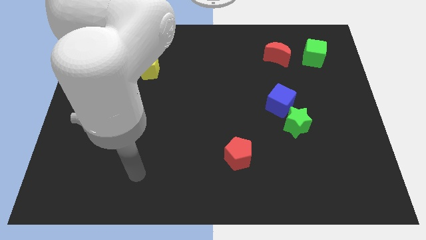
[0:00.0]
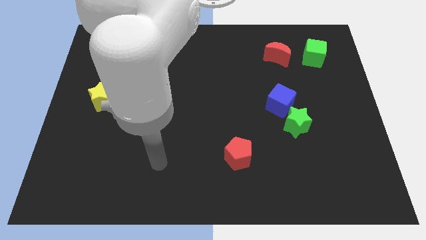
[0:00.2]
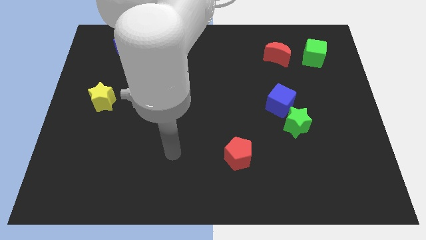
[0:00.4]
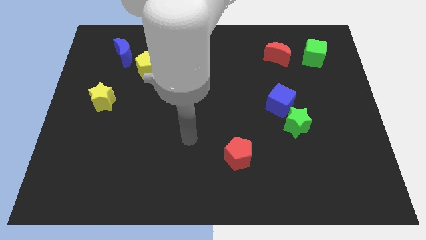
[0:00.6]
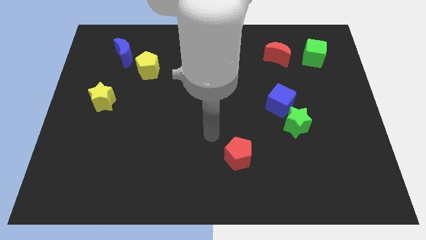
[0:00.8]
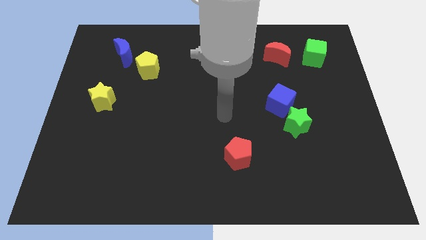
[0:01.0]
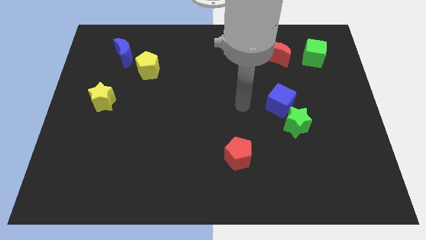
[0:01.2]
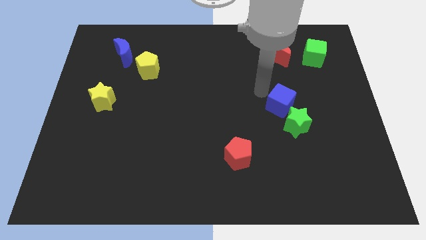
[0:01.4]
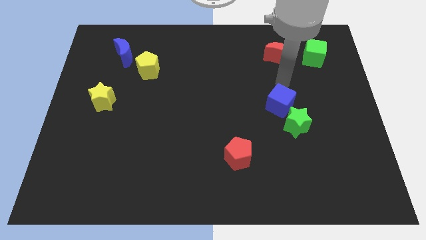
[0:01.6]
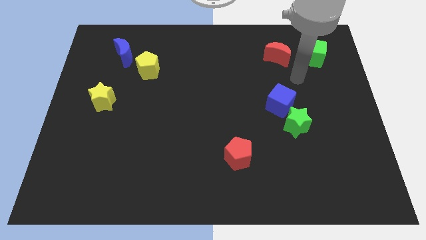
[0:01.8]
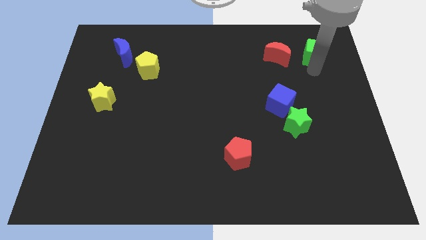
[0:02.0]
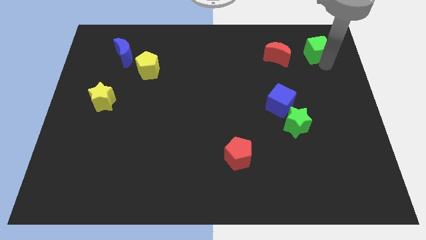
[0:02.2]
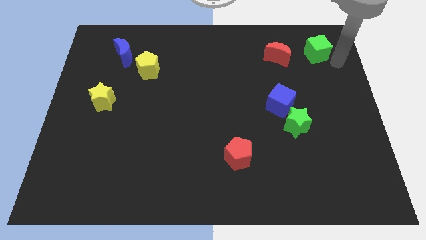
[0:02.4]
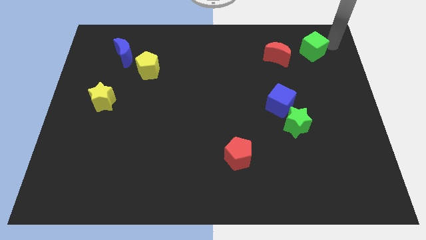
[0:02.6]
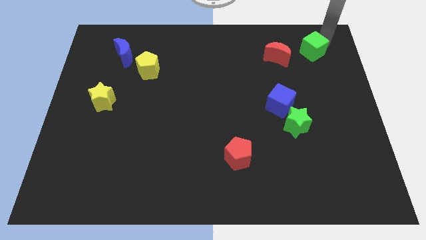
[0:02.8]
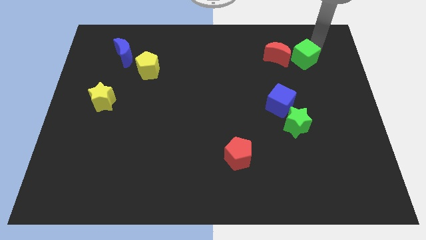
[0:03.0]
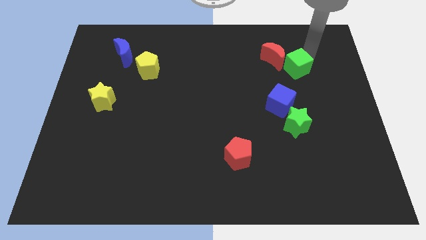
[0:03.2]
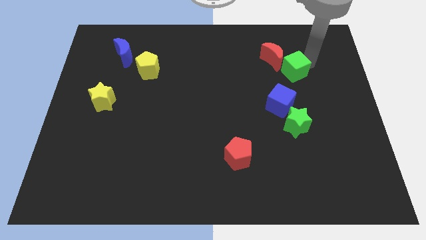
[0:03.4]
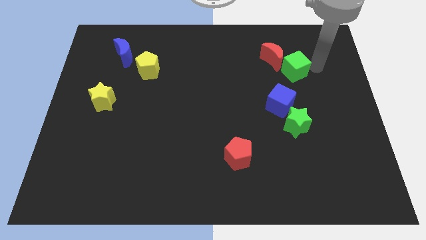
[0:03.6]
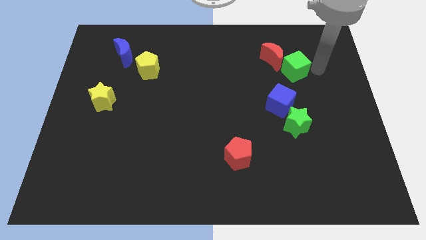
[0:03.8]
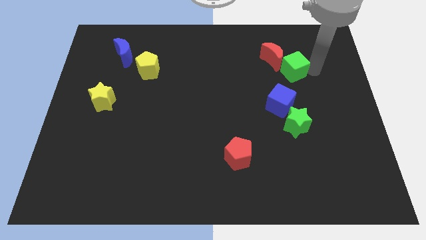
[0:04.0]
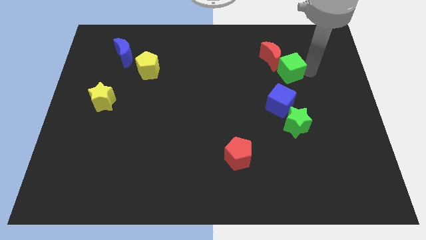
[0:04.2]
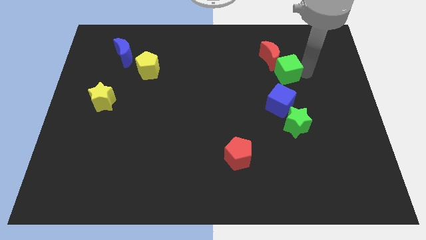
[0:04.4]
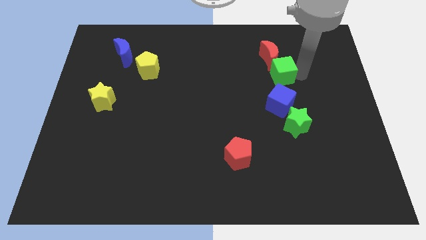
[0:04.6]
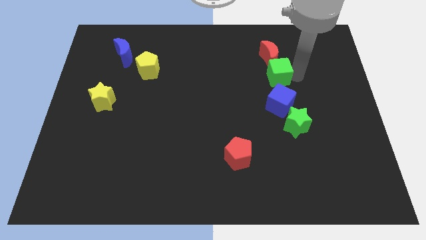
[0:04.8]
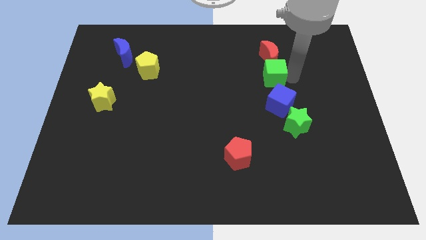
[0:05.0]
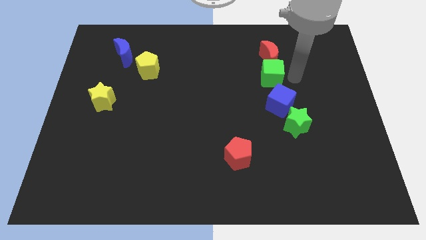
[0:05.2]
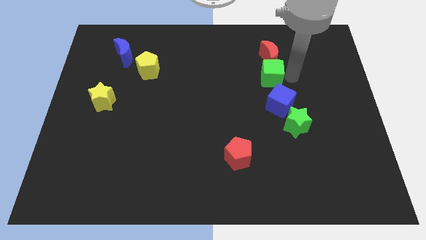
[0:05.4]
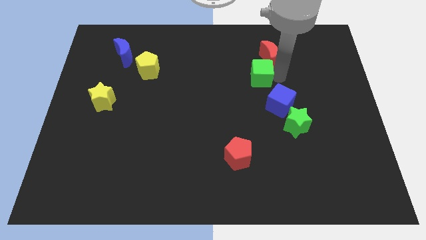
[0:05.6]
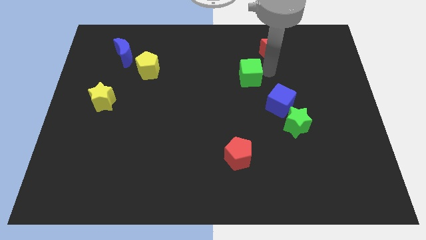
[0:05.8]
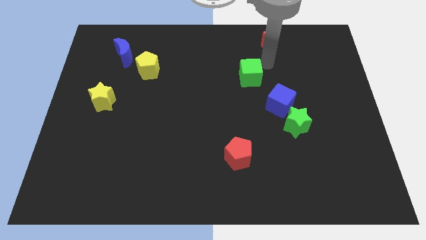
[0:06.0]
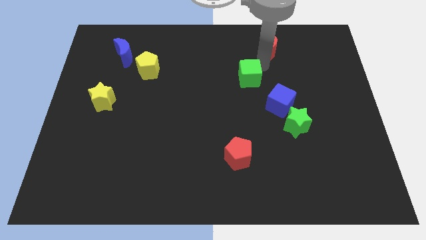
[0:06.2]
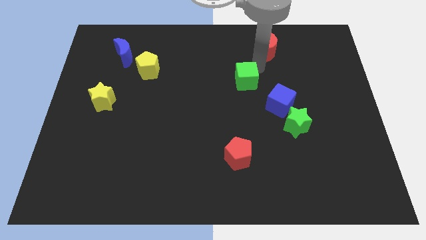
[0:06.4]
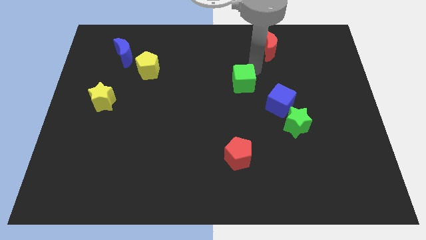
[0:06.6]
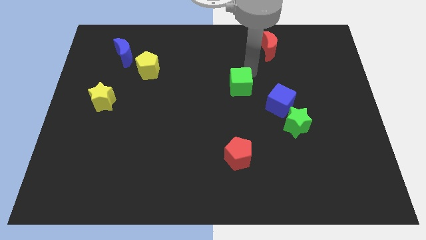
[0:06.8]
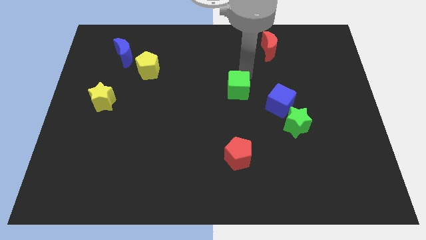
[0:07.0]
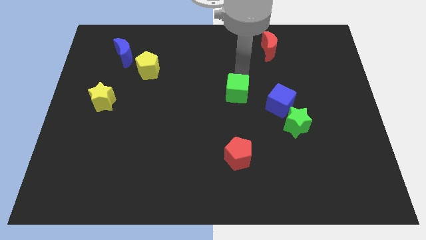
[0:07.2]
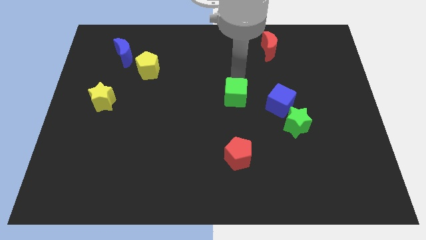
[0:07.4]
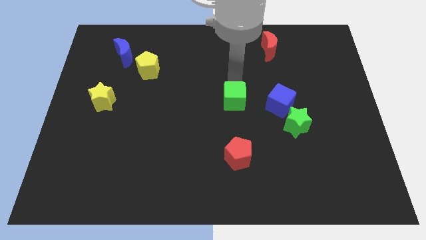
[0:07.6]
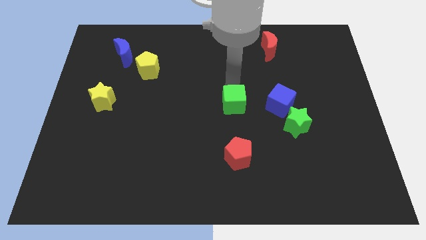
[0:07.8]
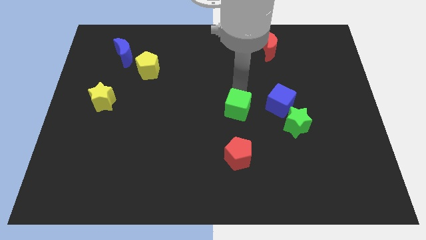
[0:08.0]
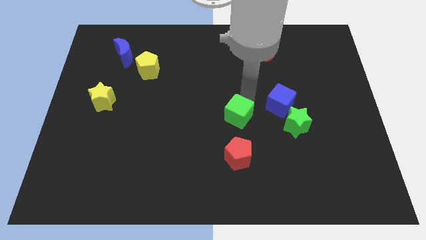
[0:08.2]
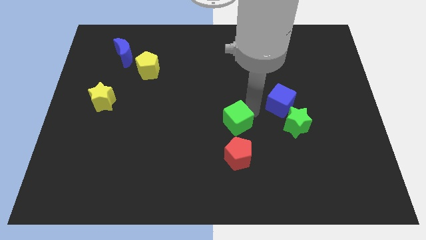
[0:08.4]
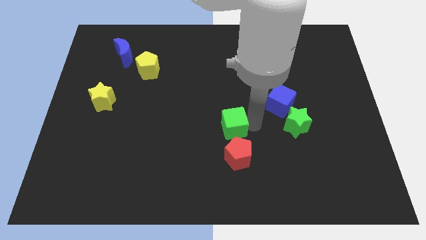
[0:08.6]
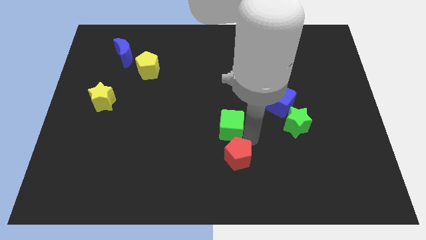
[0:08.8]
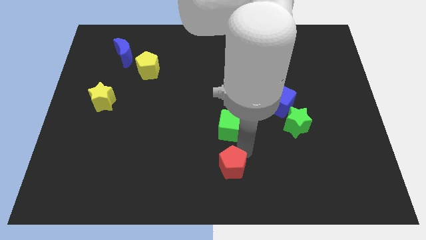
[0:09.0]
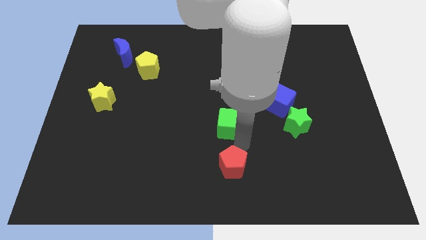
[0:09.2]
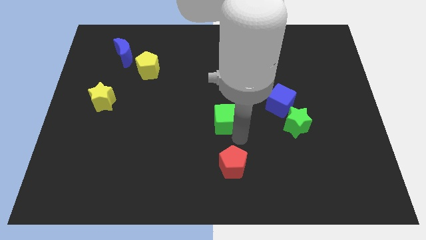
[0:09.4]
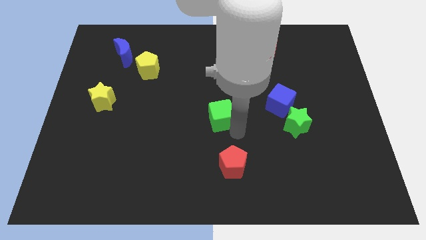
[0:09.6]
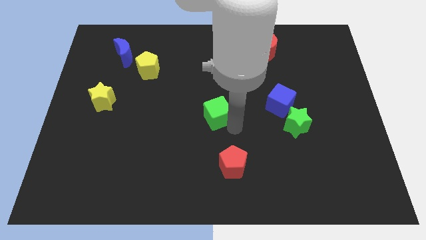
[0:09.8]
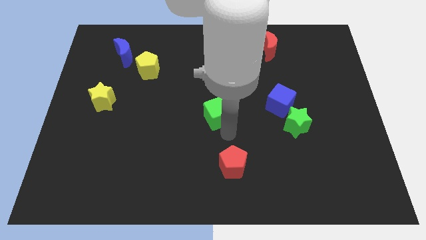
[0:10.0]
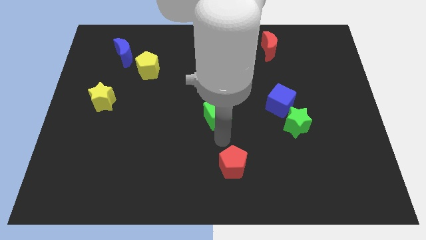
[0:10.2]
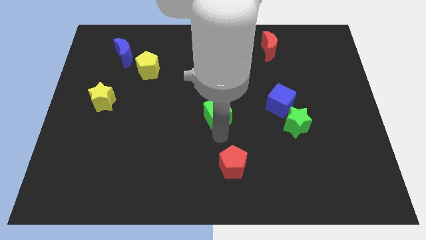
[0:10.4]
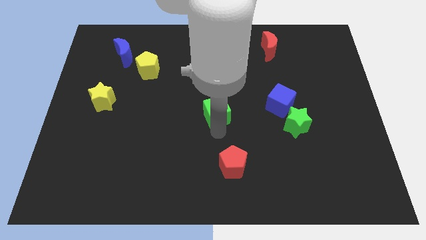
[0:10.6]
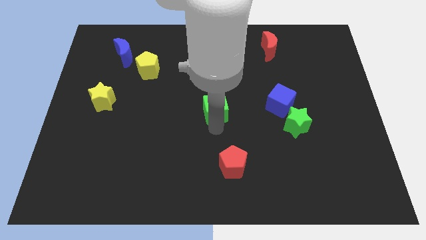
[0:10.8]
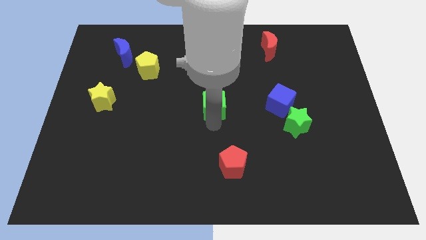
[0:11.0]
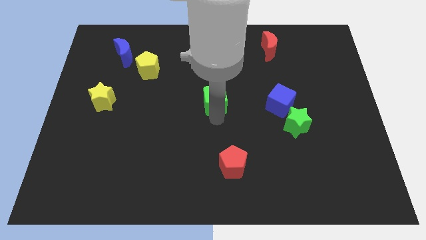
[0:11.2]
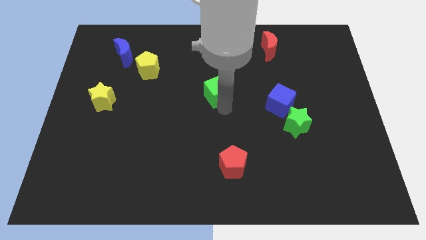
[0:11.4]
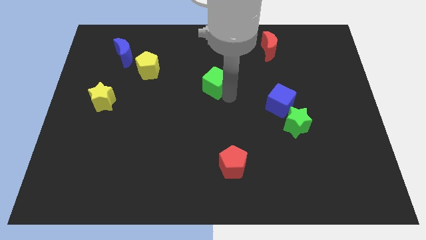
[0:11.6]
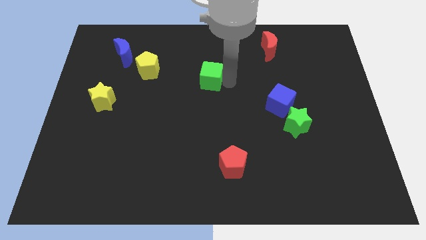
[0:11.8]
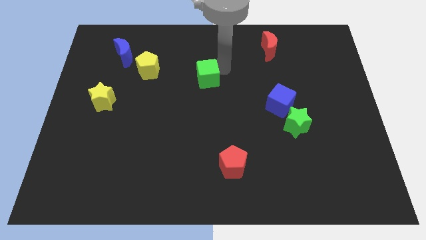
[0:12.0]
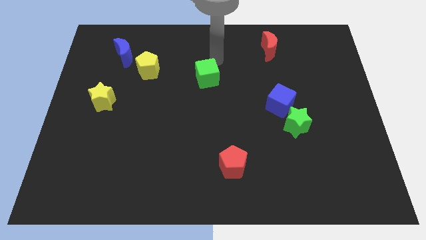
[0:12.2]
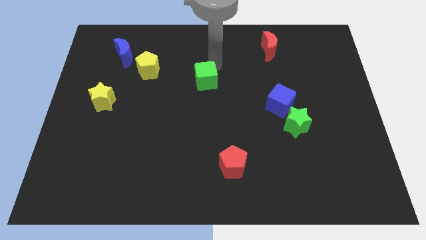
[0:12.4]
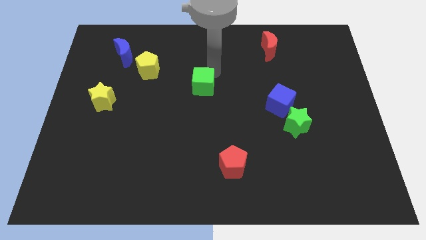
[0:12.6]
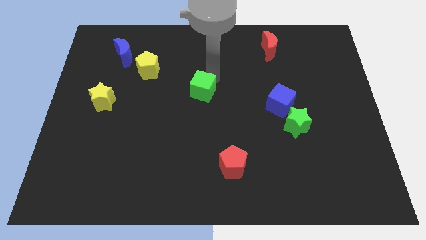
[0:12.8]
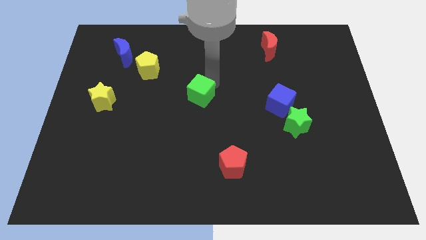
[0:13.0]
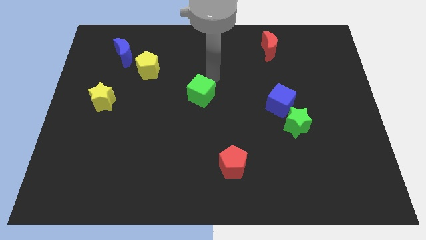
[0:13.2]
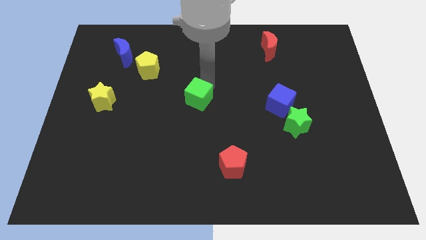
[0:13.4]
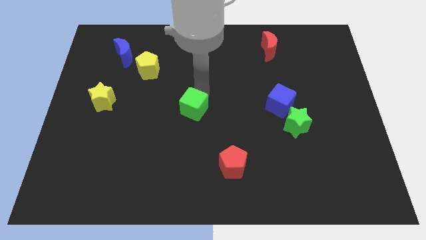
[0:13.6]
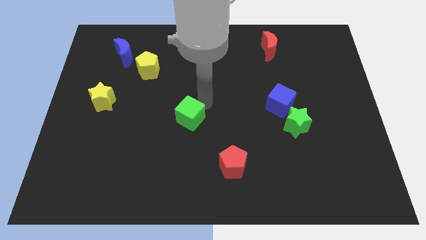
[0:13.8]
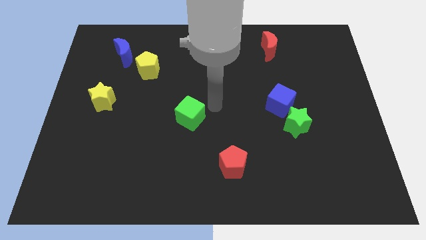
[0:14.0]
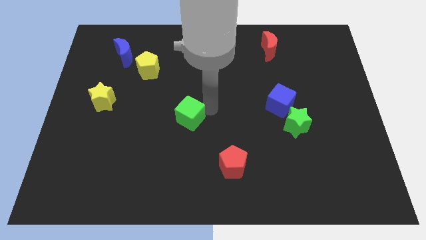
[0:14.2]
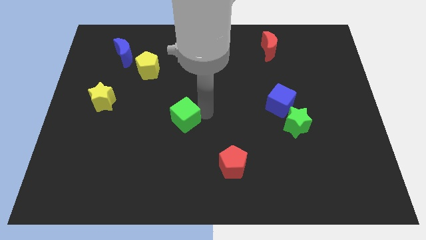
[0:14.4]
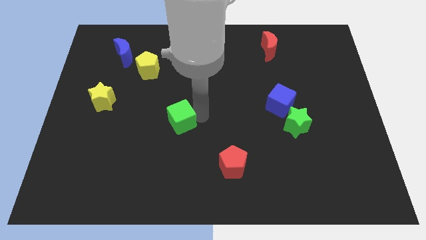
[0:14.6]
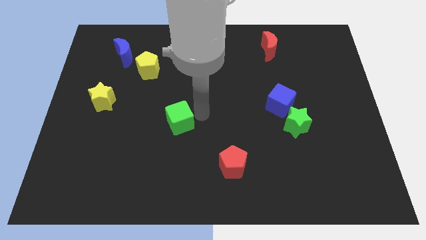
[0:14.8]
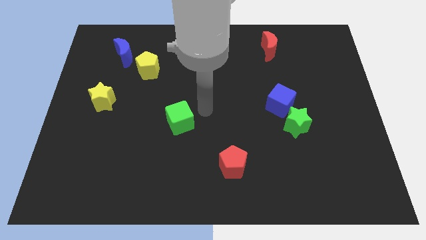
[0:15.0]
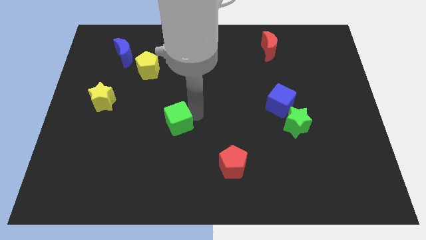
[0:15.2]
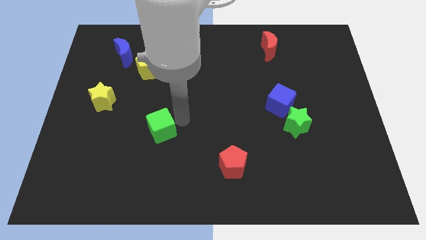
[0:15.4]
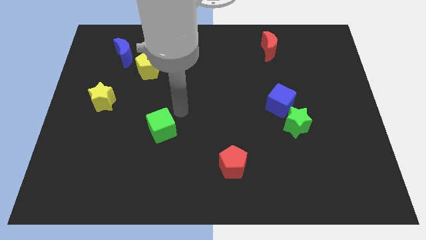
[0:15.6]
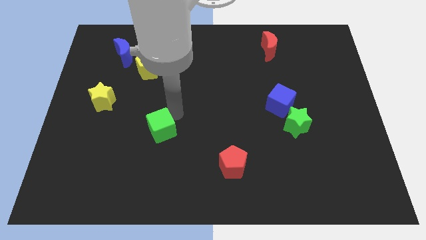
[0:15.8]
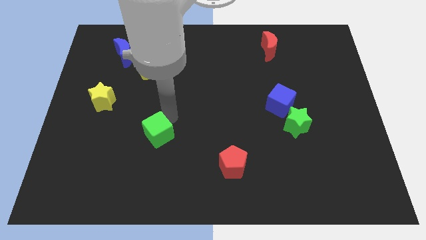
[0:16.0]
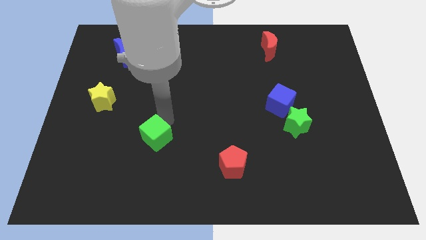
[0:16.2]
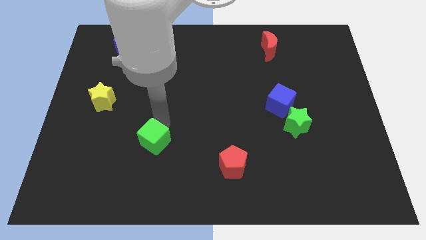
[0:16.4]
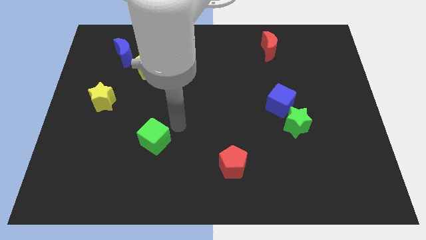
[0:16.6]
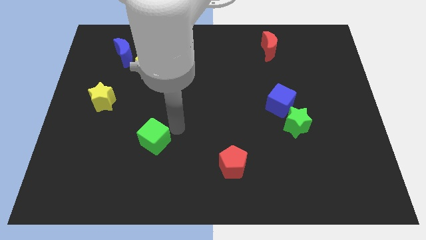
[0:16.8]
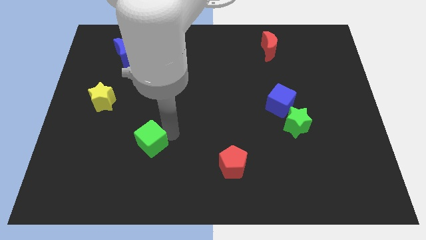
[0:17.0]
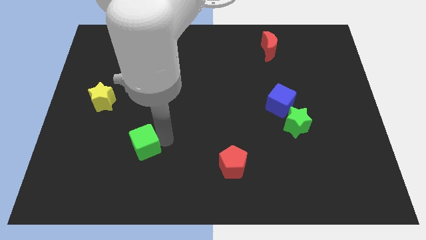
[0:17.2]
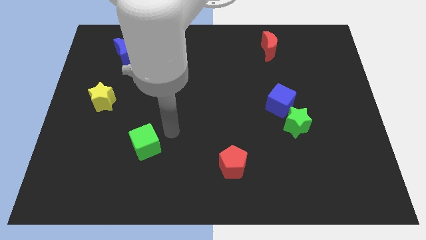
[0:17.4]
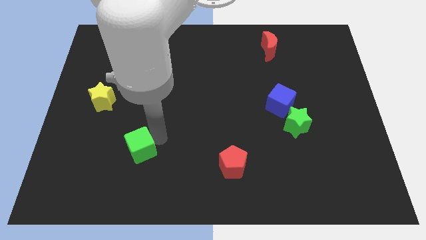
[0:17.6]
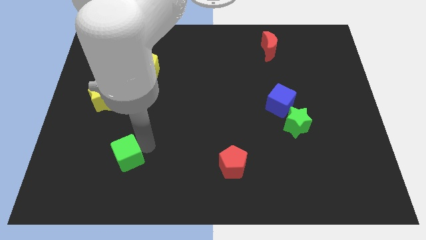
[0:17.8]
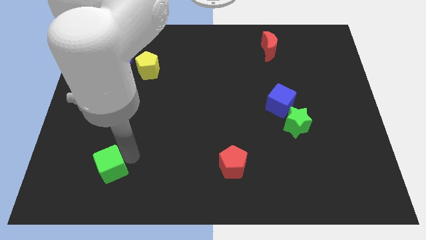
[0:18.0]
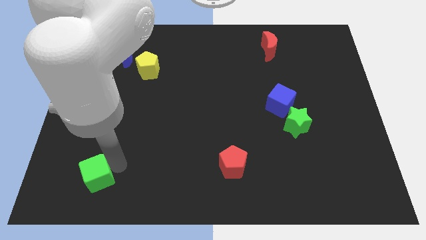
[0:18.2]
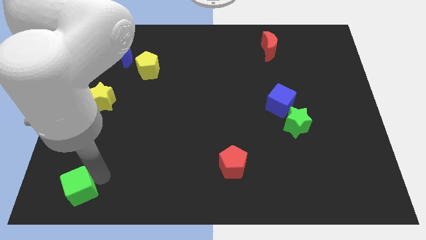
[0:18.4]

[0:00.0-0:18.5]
move the green cube to the lower left corner
